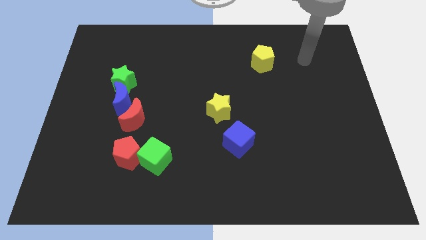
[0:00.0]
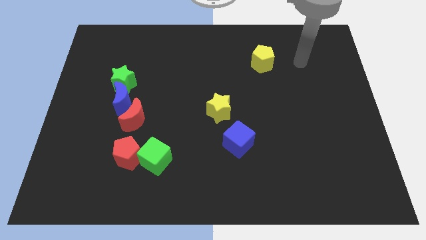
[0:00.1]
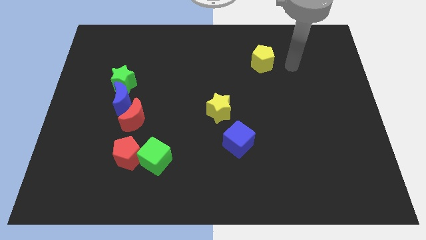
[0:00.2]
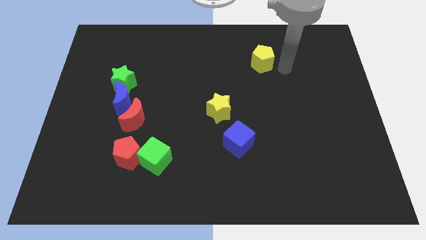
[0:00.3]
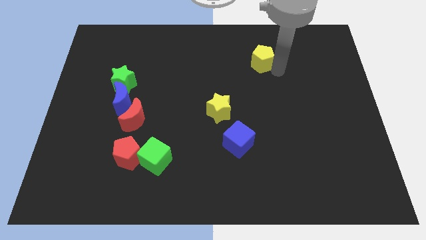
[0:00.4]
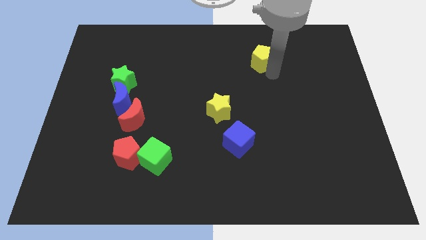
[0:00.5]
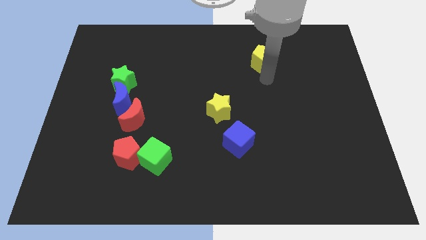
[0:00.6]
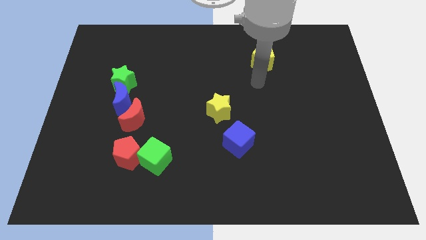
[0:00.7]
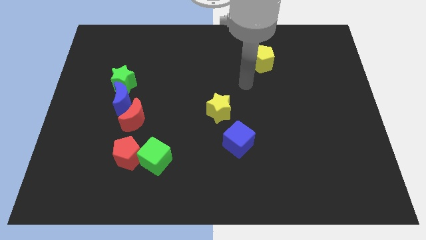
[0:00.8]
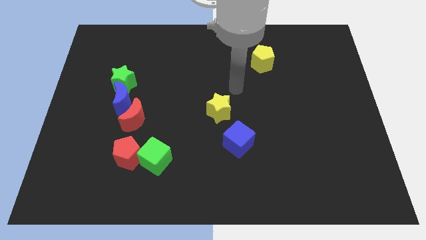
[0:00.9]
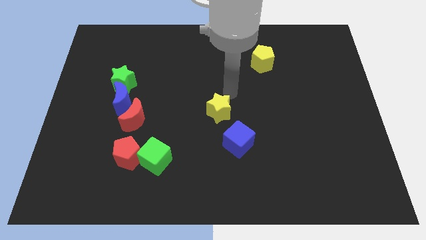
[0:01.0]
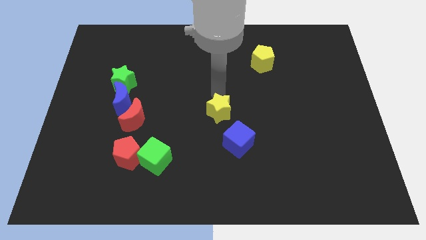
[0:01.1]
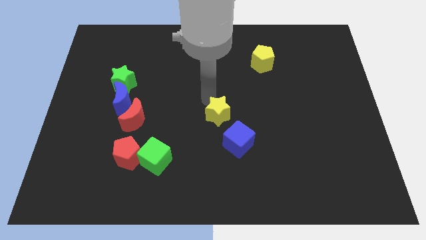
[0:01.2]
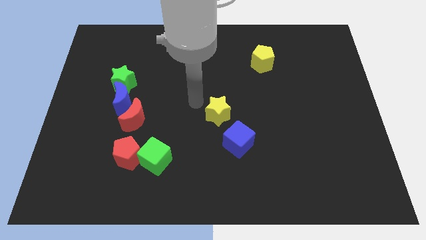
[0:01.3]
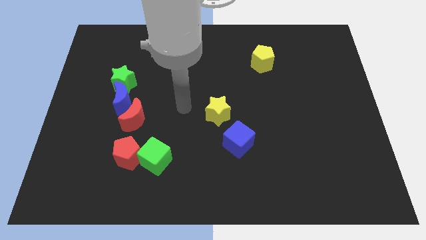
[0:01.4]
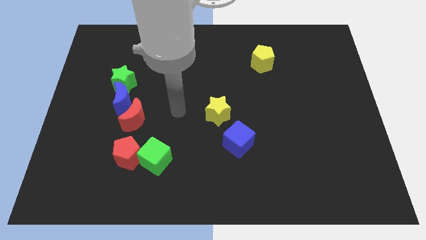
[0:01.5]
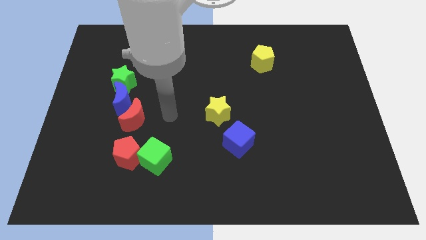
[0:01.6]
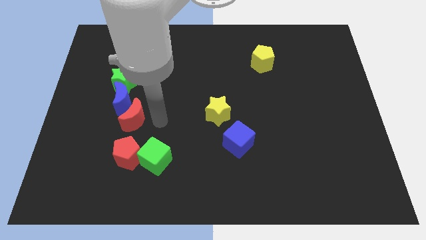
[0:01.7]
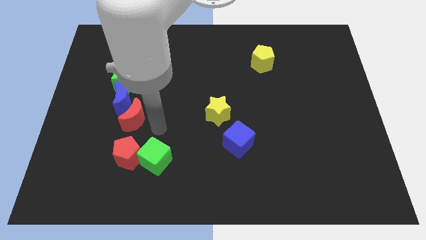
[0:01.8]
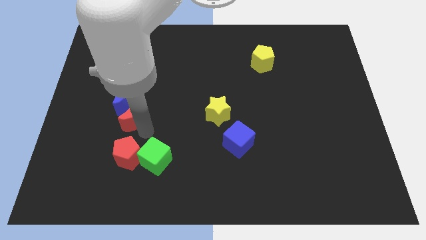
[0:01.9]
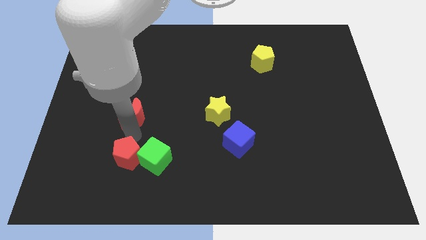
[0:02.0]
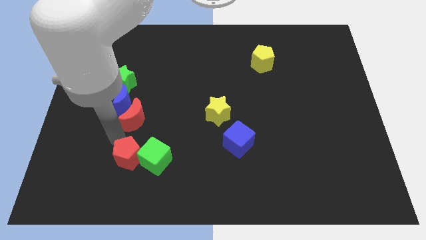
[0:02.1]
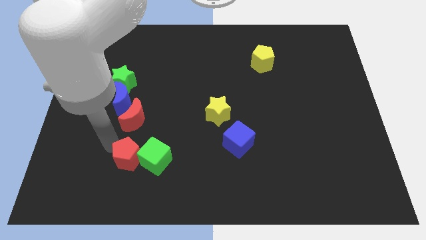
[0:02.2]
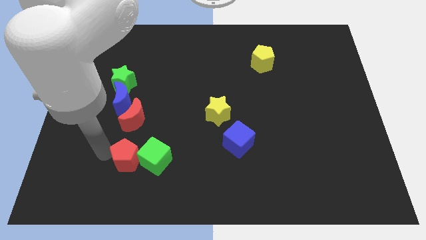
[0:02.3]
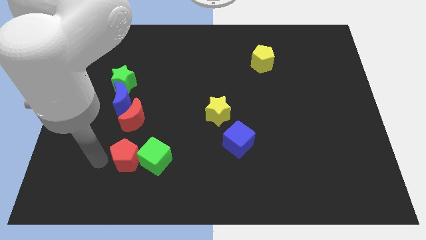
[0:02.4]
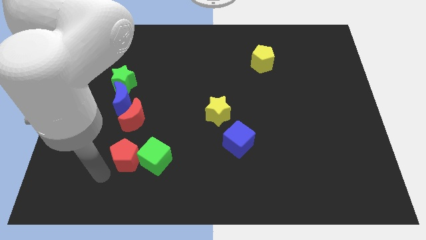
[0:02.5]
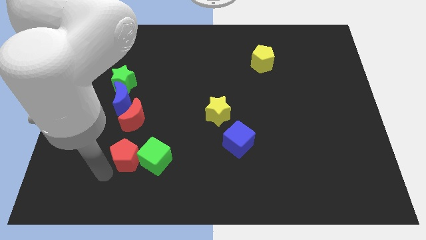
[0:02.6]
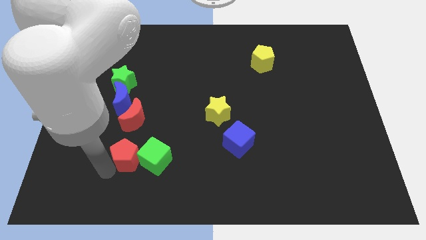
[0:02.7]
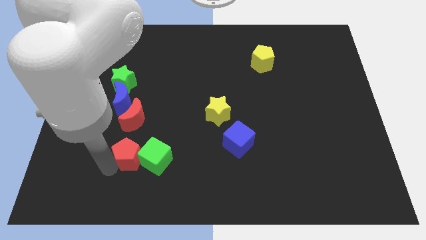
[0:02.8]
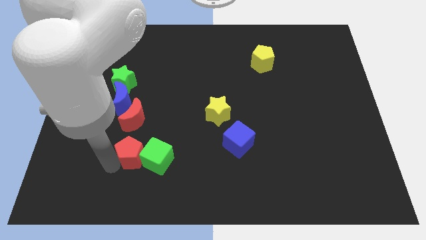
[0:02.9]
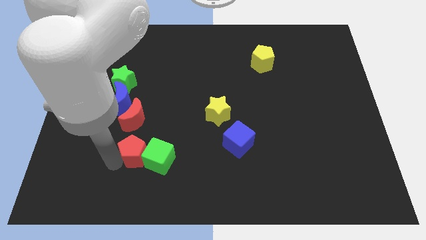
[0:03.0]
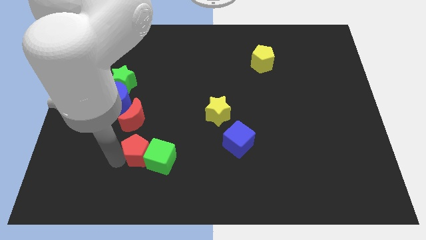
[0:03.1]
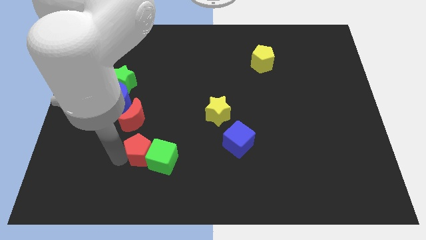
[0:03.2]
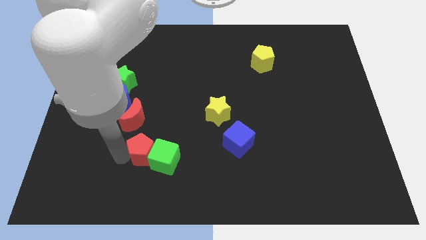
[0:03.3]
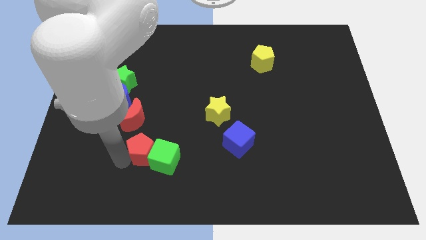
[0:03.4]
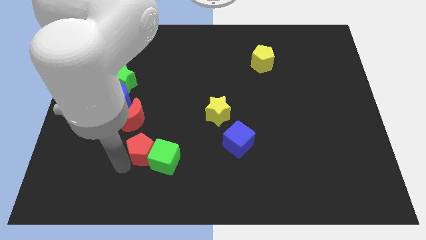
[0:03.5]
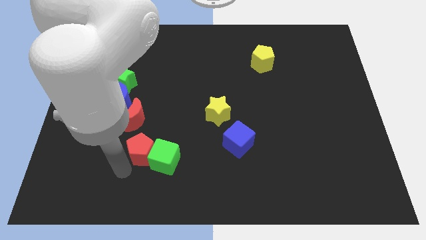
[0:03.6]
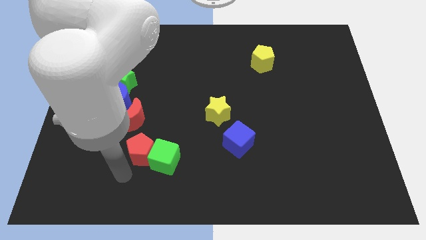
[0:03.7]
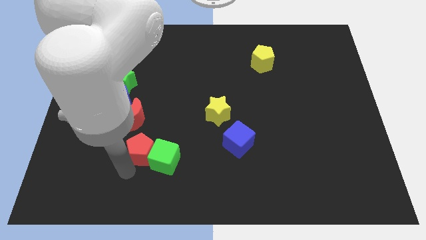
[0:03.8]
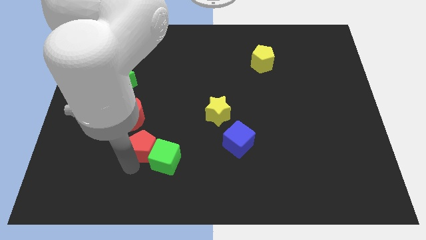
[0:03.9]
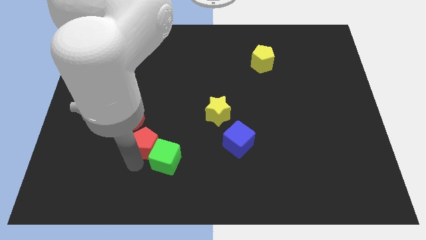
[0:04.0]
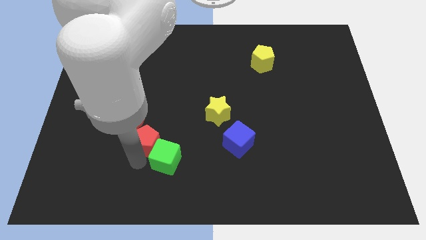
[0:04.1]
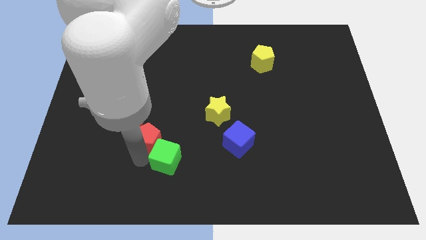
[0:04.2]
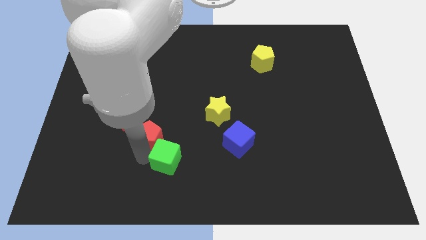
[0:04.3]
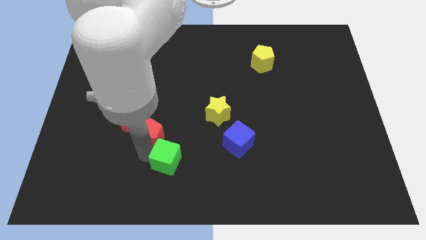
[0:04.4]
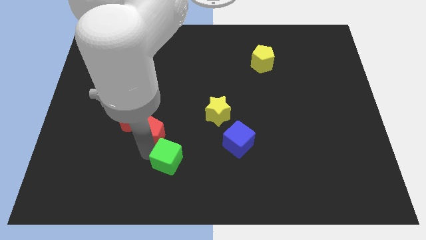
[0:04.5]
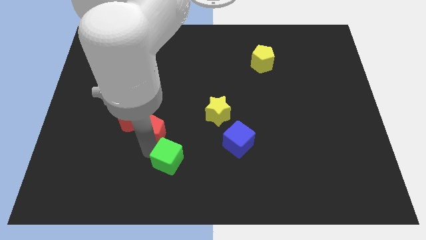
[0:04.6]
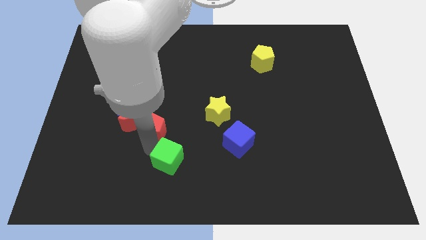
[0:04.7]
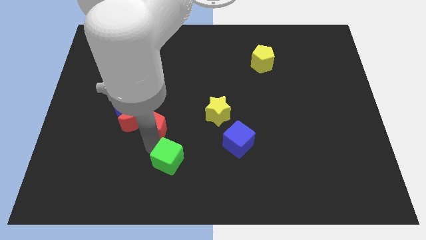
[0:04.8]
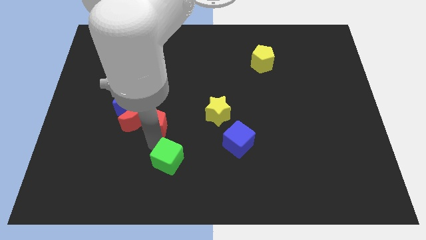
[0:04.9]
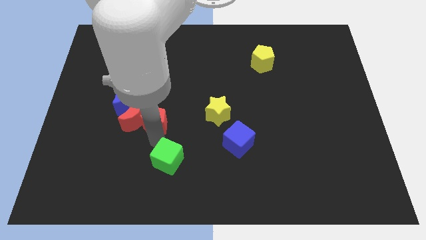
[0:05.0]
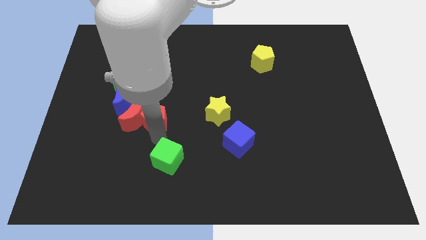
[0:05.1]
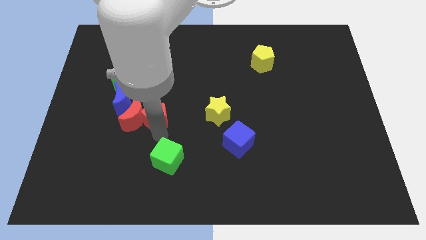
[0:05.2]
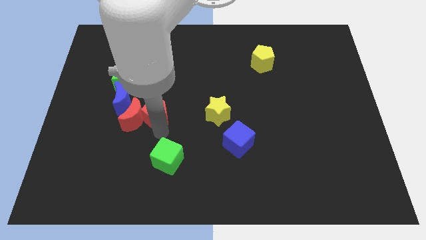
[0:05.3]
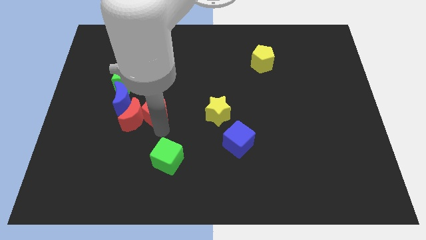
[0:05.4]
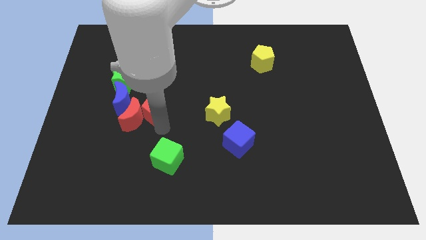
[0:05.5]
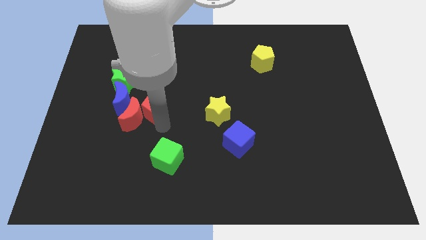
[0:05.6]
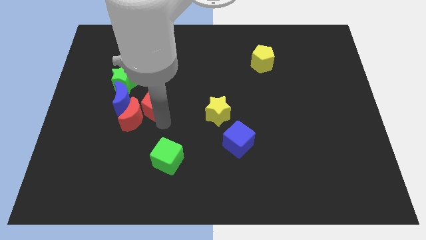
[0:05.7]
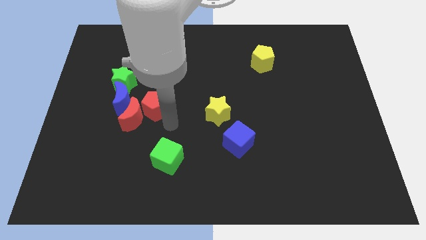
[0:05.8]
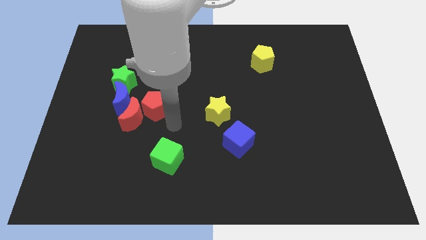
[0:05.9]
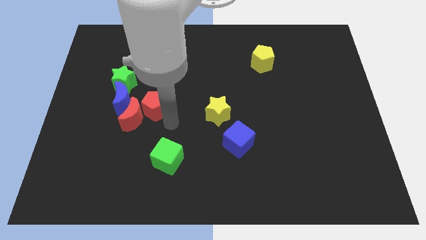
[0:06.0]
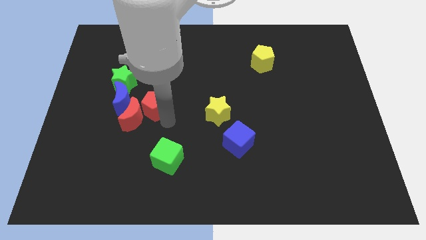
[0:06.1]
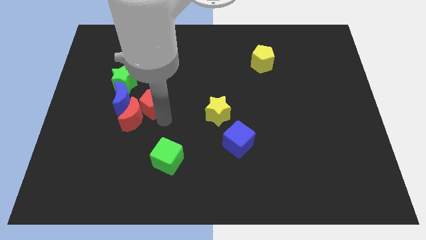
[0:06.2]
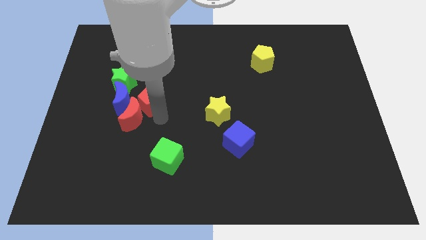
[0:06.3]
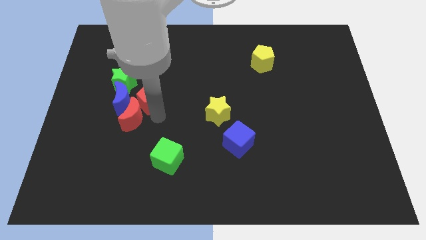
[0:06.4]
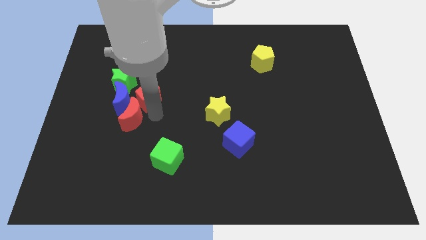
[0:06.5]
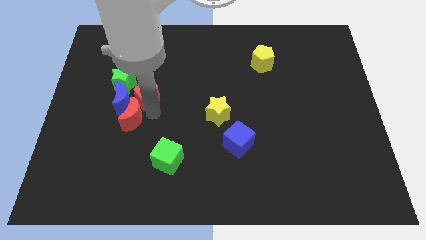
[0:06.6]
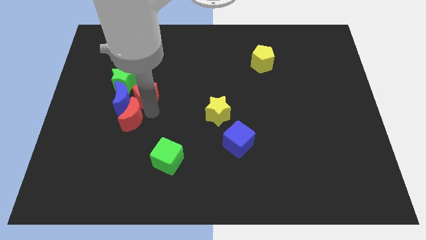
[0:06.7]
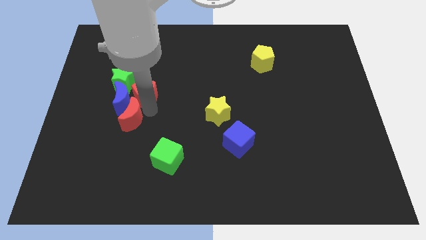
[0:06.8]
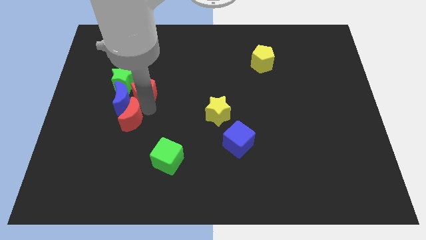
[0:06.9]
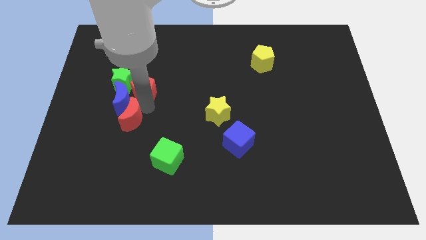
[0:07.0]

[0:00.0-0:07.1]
put the red pentagon towards the green star
